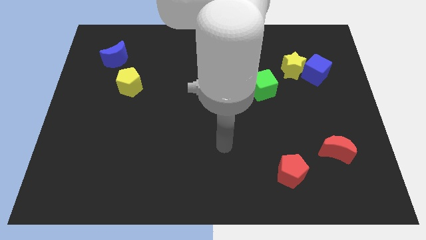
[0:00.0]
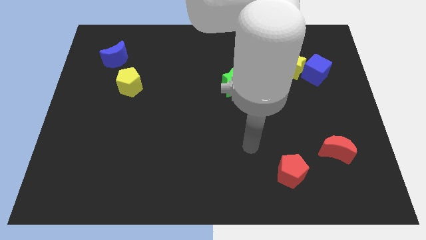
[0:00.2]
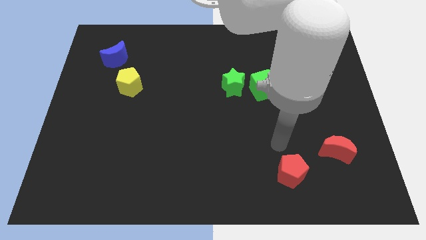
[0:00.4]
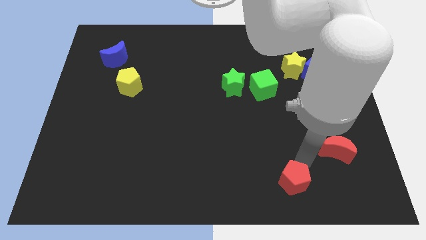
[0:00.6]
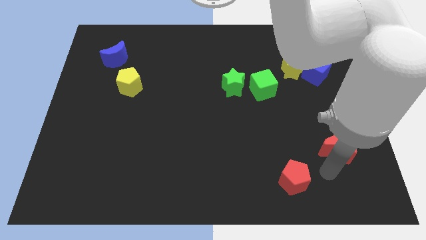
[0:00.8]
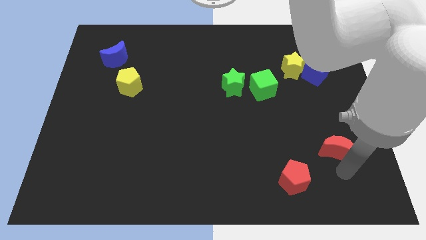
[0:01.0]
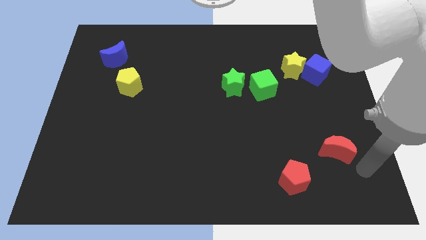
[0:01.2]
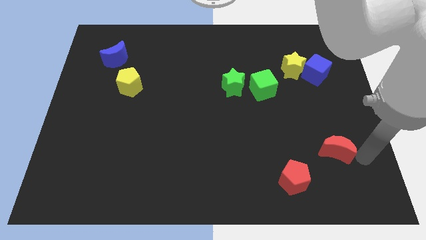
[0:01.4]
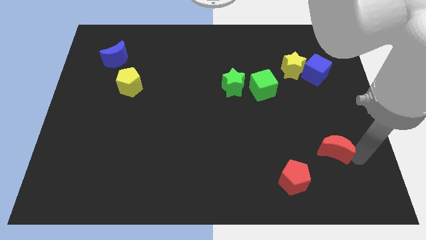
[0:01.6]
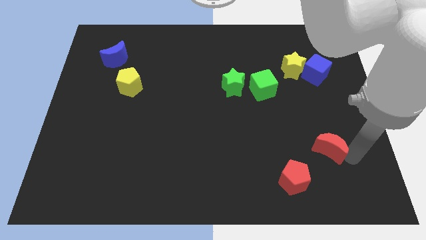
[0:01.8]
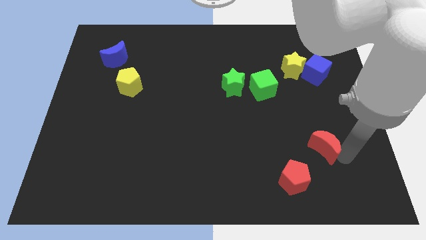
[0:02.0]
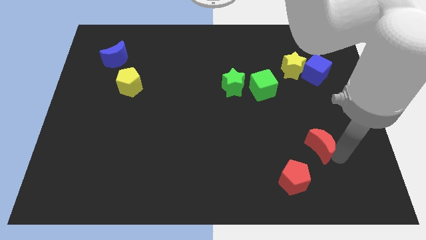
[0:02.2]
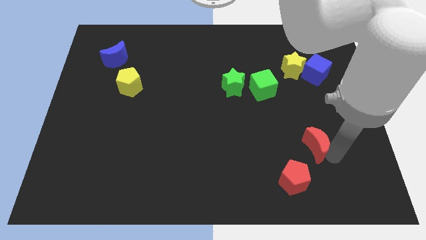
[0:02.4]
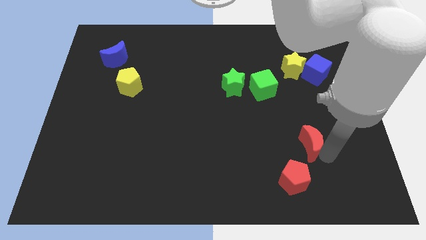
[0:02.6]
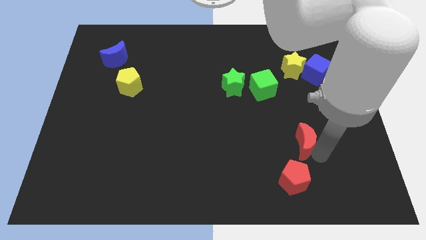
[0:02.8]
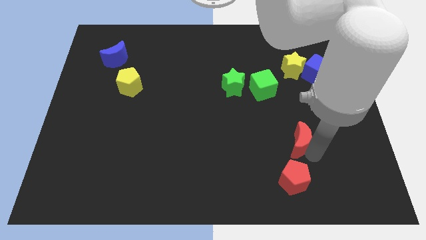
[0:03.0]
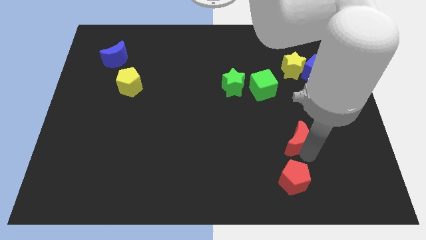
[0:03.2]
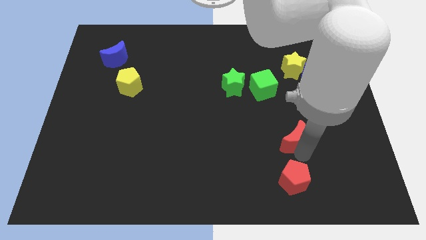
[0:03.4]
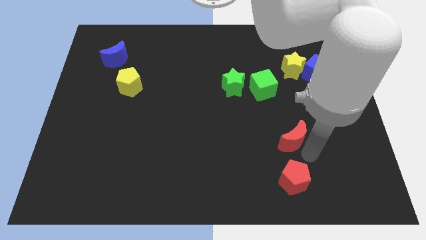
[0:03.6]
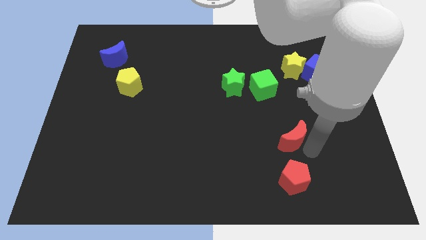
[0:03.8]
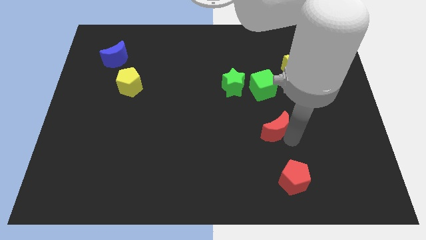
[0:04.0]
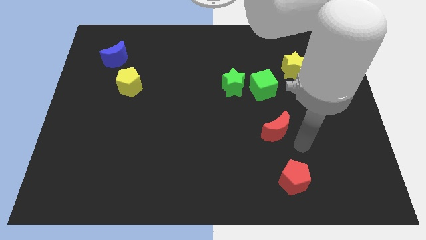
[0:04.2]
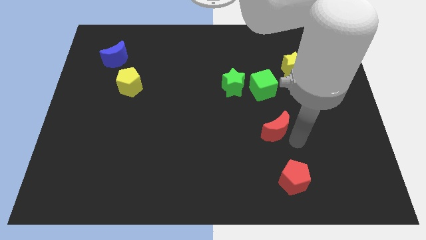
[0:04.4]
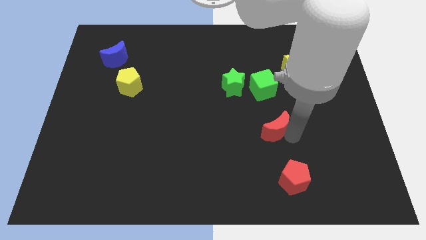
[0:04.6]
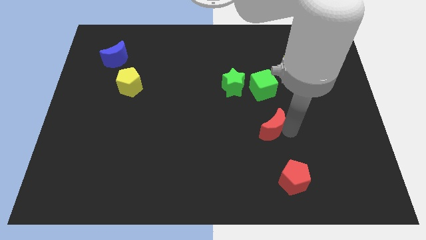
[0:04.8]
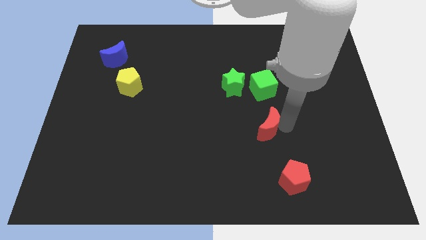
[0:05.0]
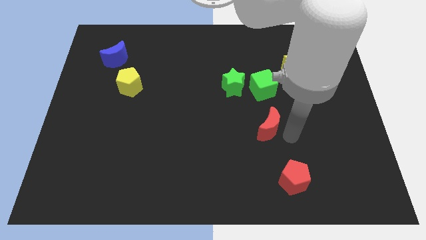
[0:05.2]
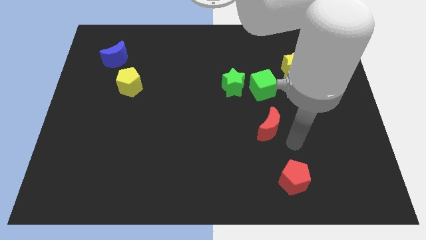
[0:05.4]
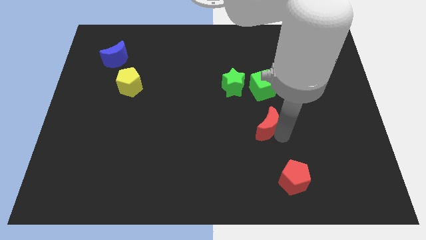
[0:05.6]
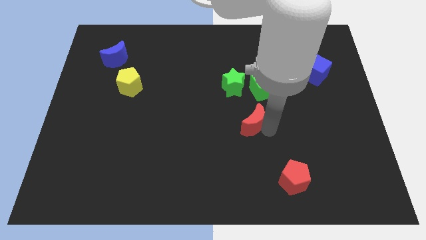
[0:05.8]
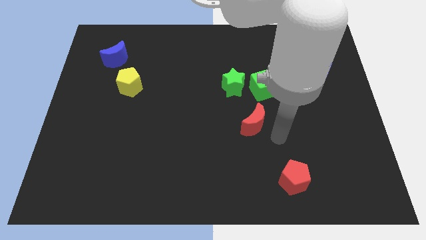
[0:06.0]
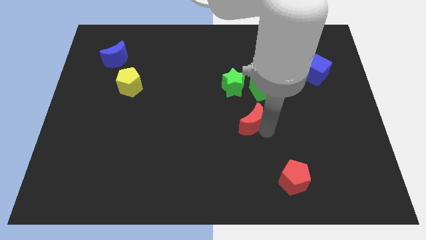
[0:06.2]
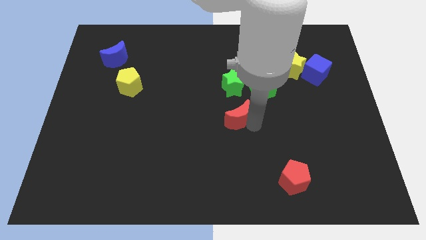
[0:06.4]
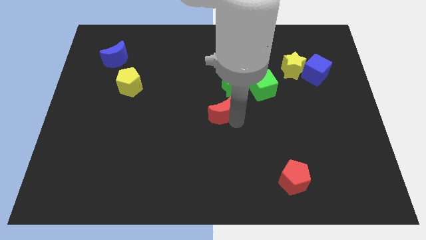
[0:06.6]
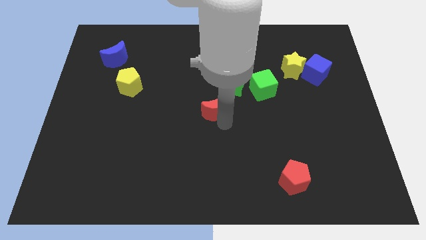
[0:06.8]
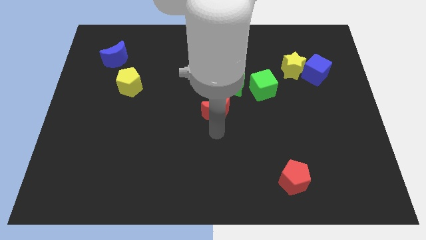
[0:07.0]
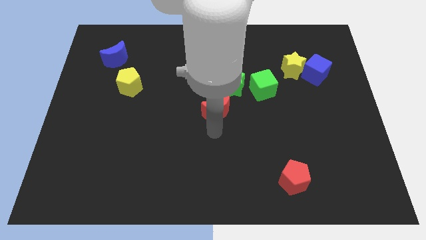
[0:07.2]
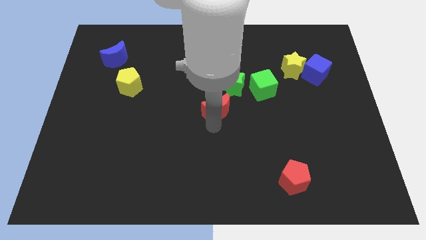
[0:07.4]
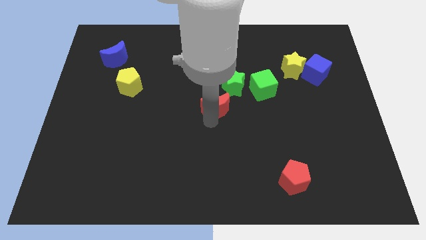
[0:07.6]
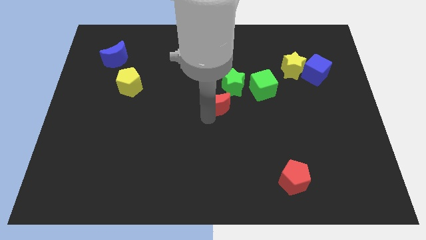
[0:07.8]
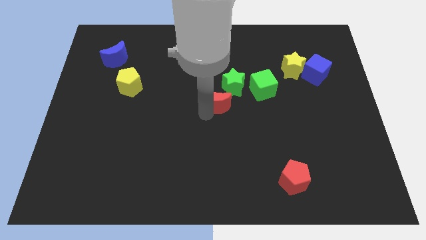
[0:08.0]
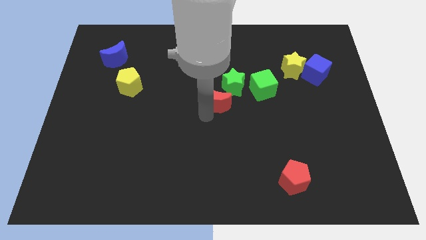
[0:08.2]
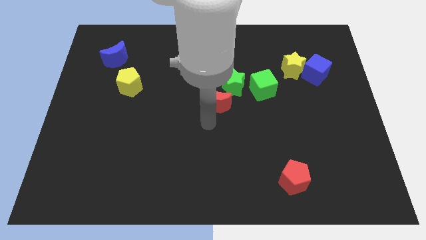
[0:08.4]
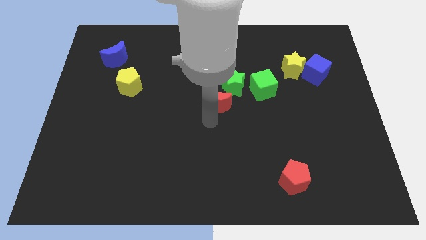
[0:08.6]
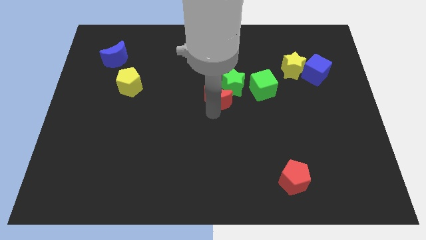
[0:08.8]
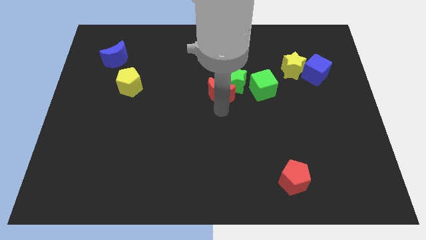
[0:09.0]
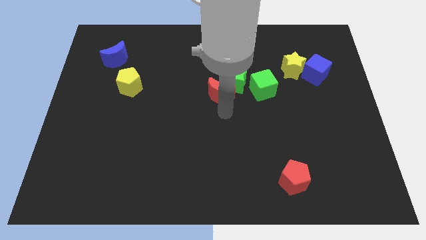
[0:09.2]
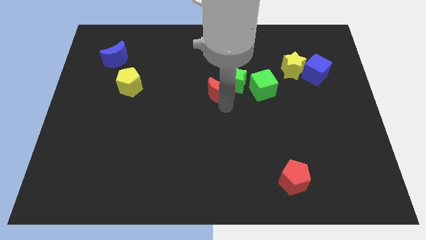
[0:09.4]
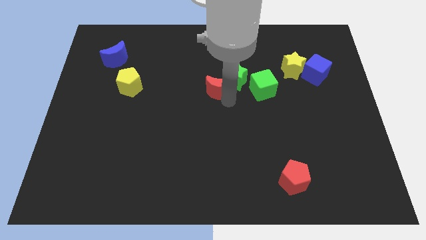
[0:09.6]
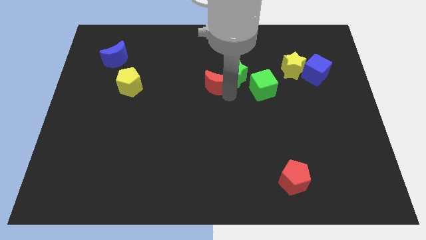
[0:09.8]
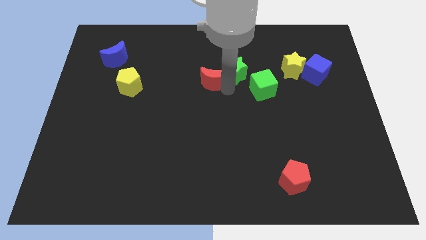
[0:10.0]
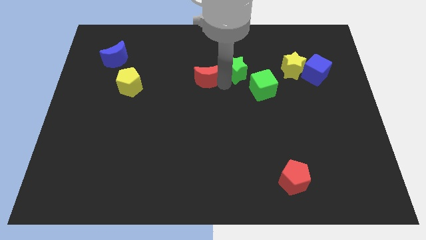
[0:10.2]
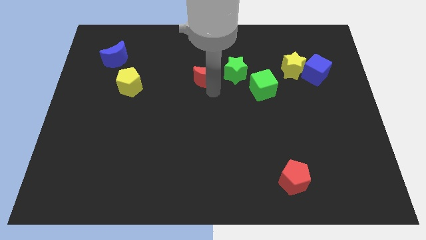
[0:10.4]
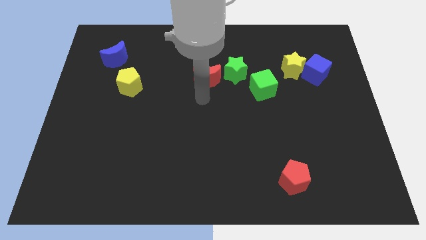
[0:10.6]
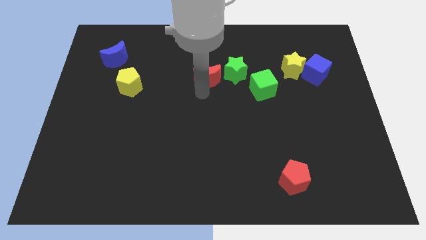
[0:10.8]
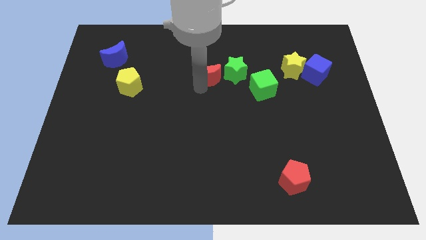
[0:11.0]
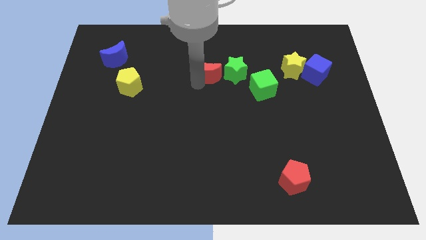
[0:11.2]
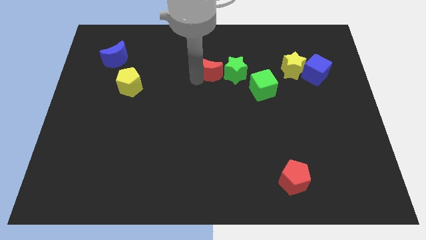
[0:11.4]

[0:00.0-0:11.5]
put the red moon to the top left side of the green star

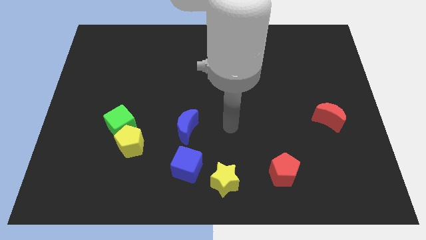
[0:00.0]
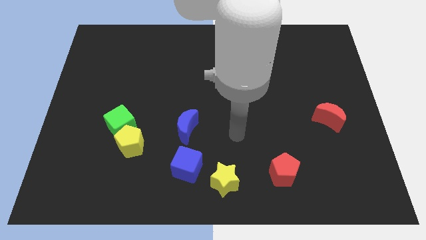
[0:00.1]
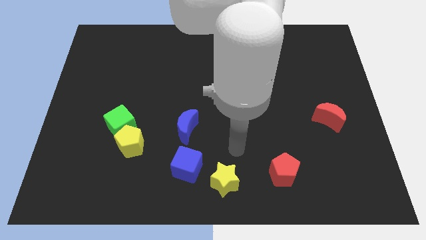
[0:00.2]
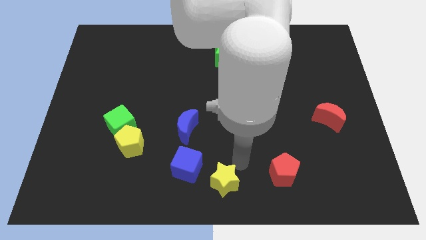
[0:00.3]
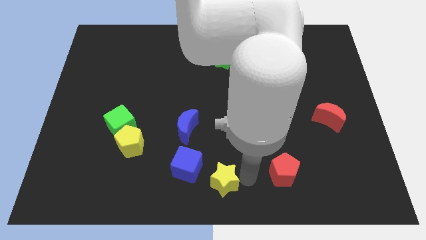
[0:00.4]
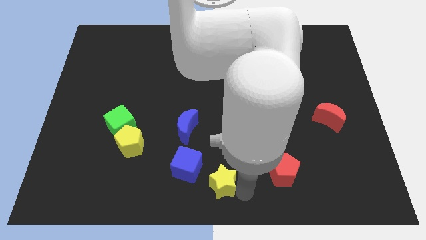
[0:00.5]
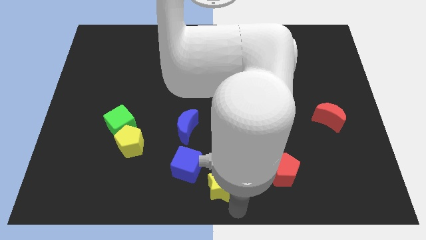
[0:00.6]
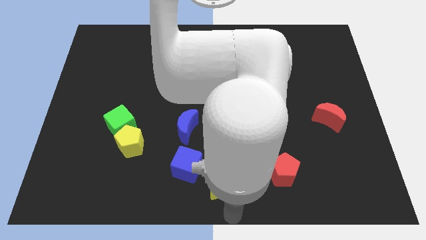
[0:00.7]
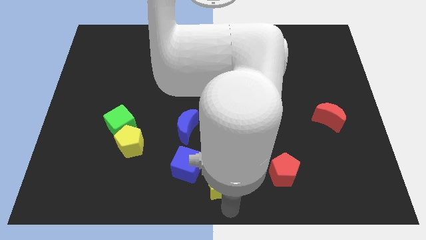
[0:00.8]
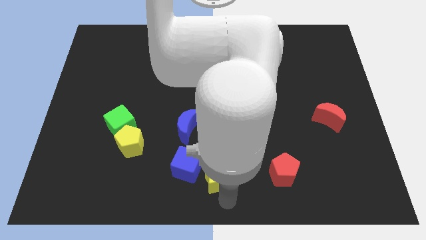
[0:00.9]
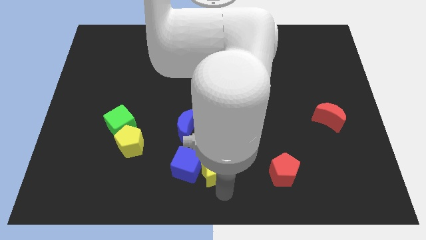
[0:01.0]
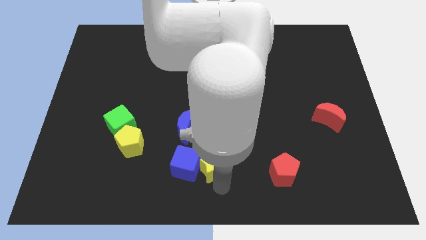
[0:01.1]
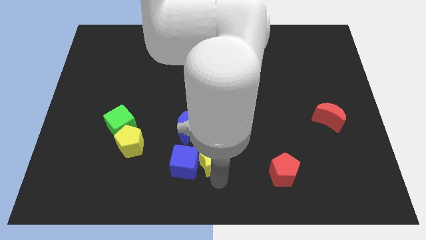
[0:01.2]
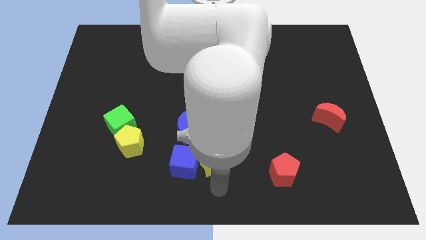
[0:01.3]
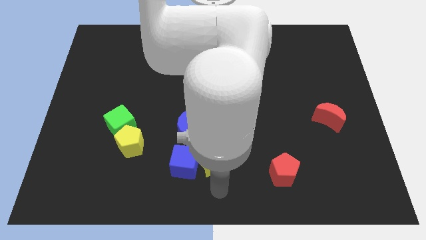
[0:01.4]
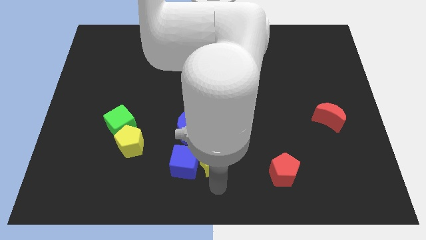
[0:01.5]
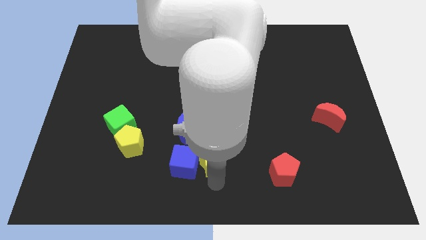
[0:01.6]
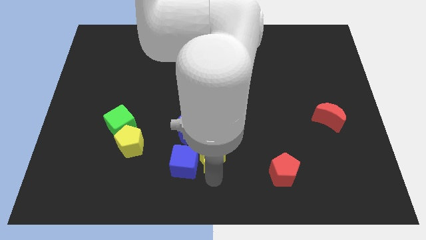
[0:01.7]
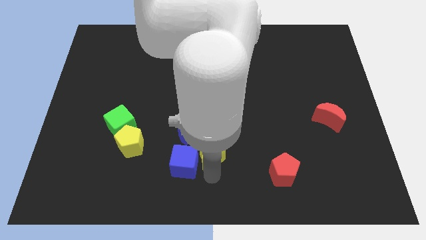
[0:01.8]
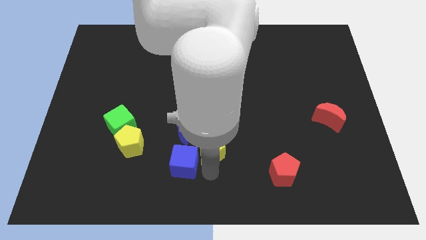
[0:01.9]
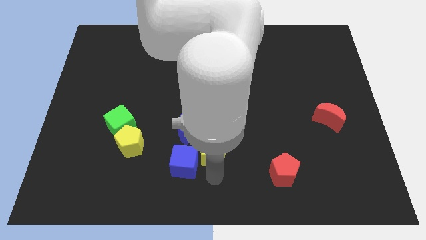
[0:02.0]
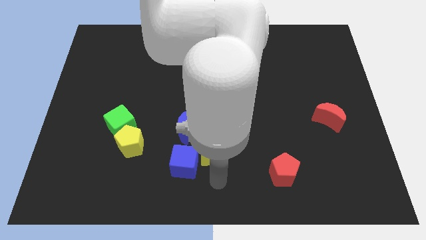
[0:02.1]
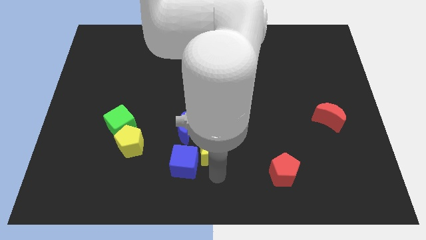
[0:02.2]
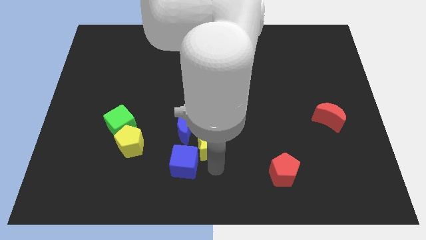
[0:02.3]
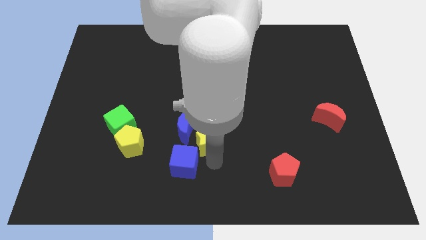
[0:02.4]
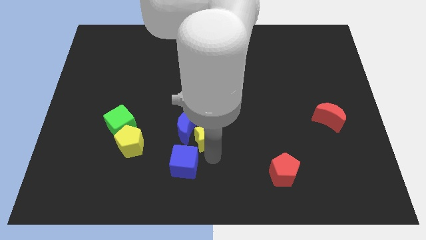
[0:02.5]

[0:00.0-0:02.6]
put the yellow star to the top side of the blue cube
